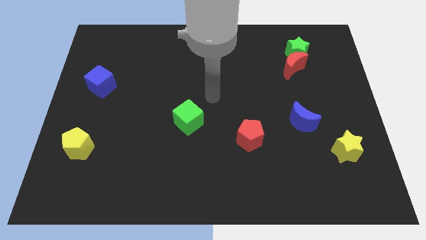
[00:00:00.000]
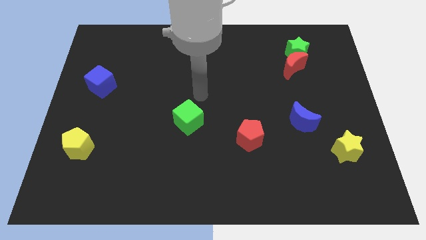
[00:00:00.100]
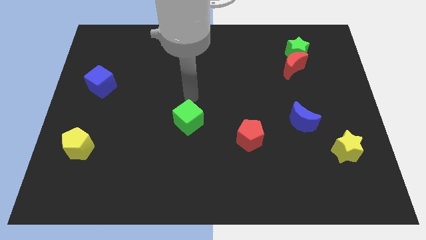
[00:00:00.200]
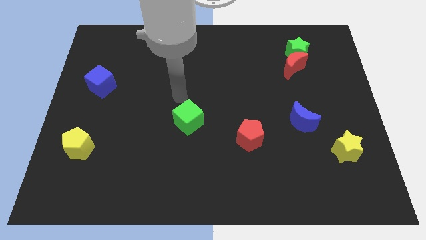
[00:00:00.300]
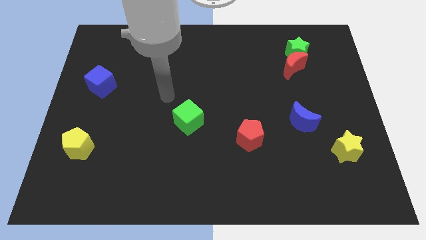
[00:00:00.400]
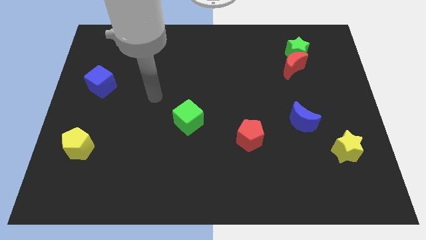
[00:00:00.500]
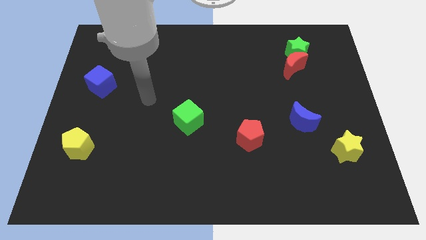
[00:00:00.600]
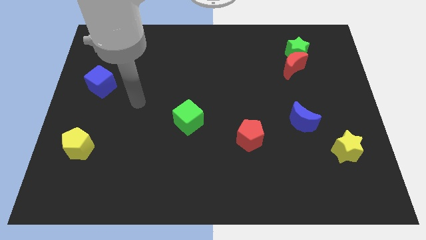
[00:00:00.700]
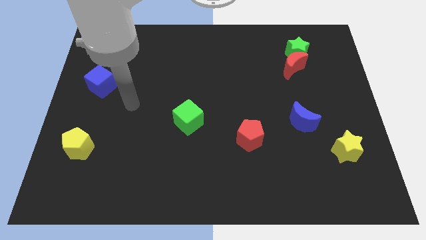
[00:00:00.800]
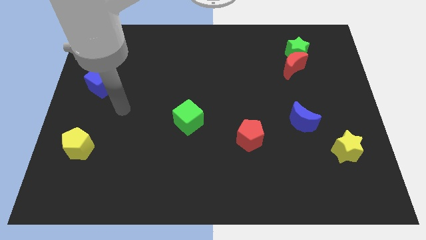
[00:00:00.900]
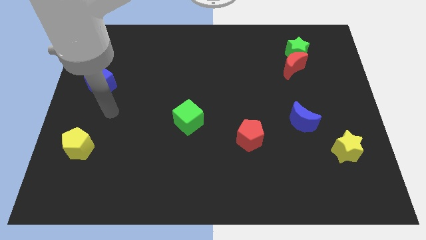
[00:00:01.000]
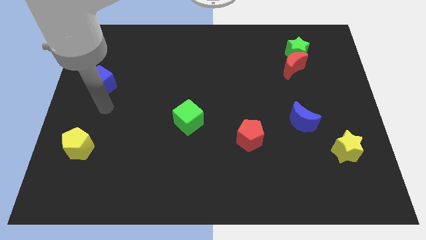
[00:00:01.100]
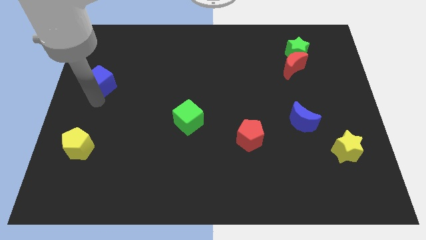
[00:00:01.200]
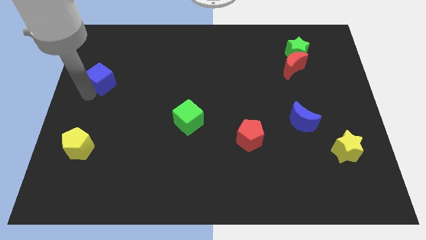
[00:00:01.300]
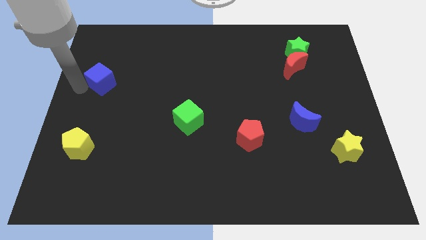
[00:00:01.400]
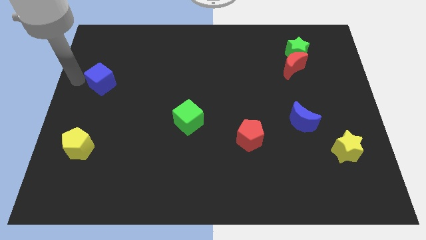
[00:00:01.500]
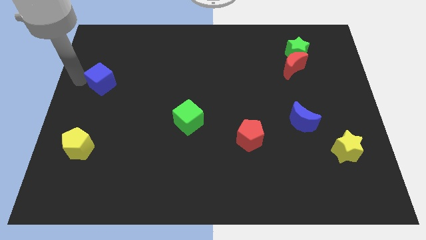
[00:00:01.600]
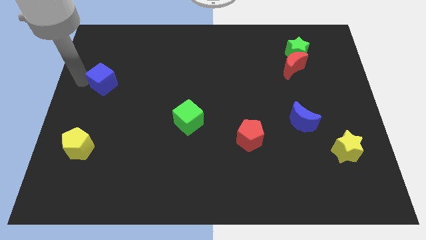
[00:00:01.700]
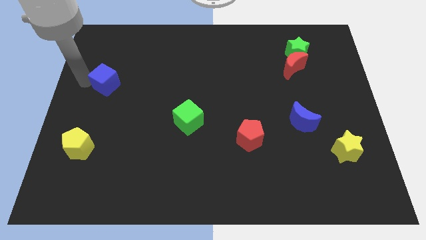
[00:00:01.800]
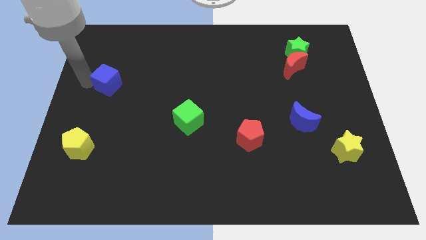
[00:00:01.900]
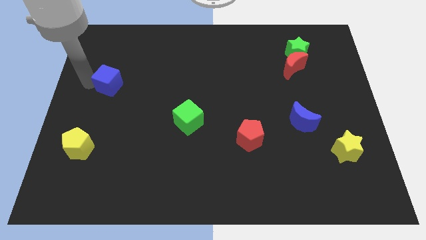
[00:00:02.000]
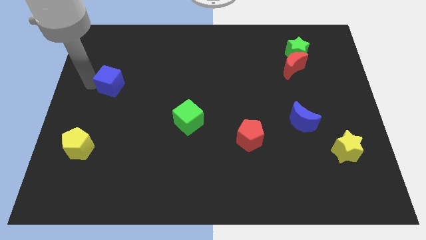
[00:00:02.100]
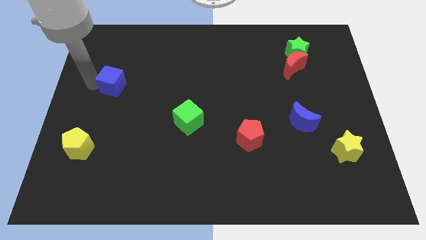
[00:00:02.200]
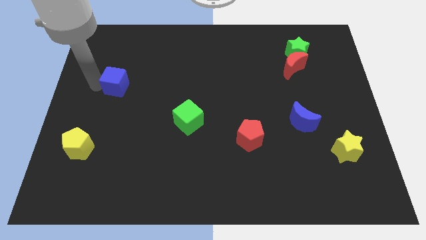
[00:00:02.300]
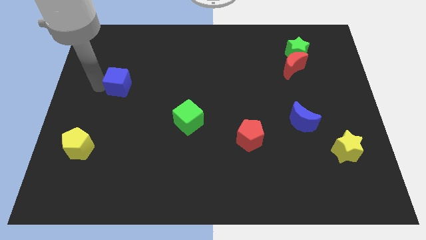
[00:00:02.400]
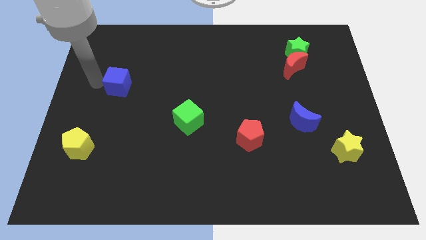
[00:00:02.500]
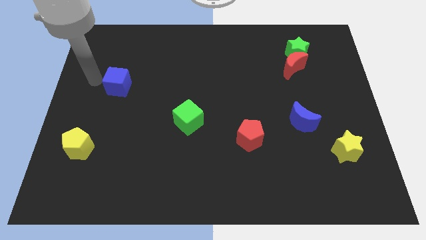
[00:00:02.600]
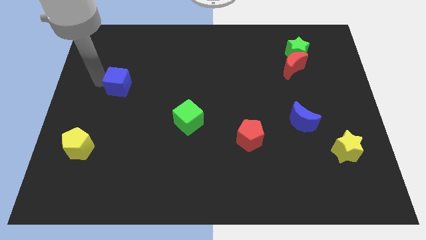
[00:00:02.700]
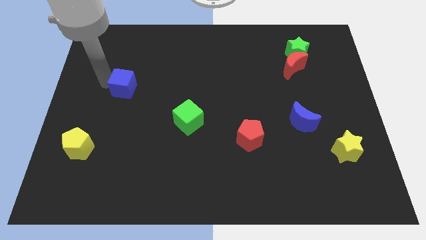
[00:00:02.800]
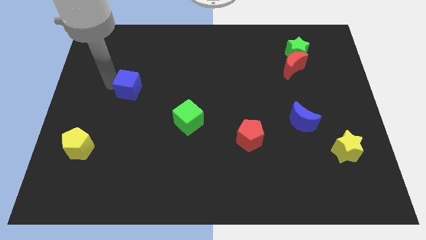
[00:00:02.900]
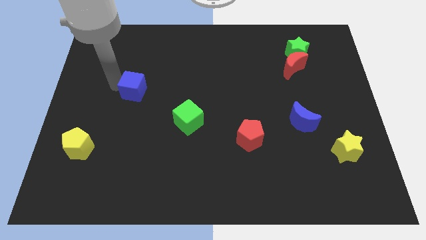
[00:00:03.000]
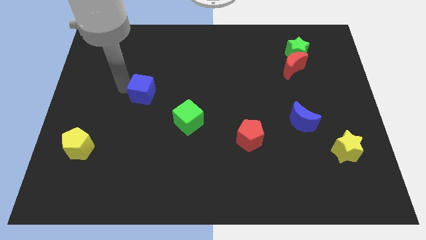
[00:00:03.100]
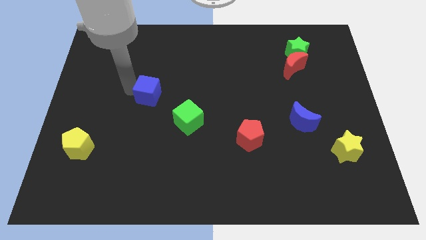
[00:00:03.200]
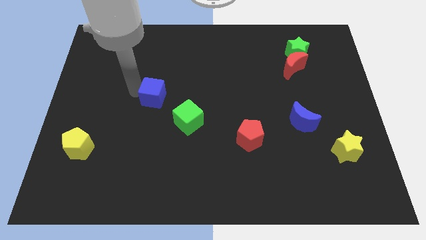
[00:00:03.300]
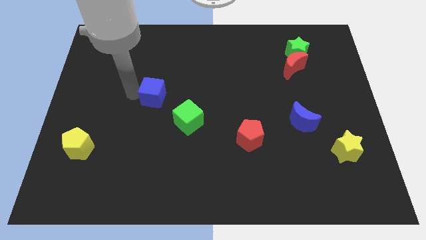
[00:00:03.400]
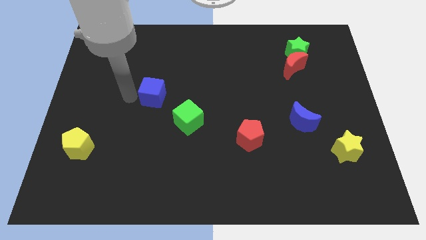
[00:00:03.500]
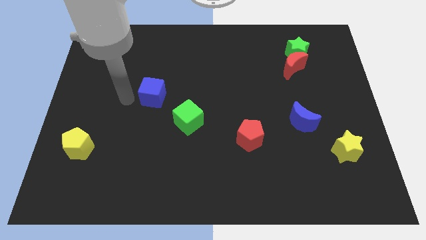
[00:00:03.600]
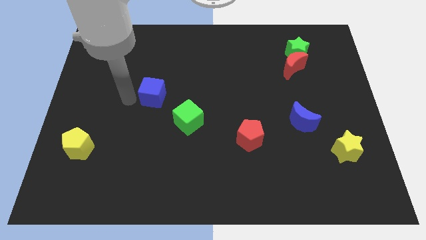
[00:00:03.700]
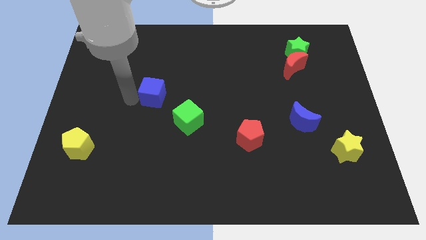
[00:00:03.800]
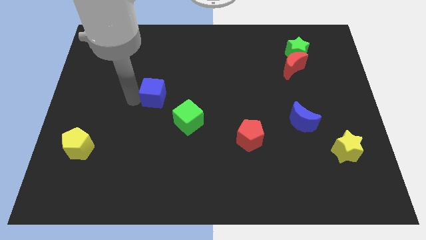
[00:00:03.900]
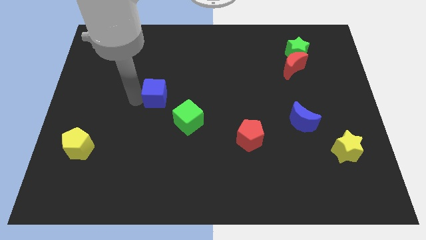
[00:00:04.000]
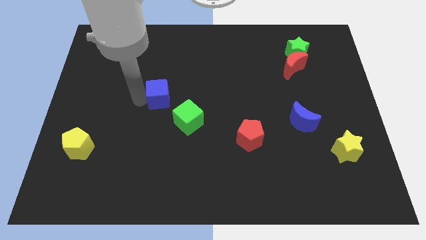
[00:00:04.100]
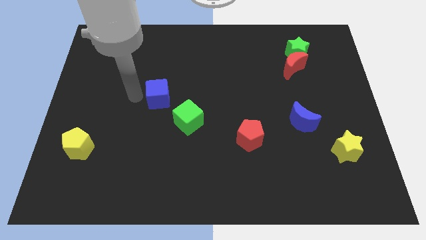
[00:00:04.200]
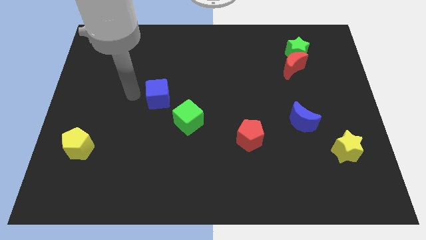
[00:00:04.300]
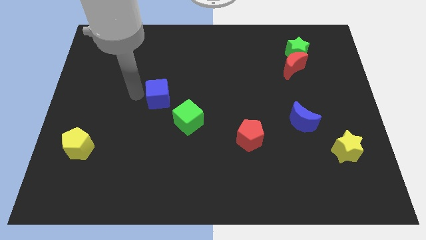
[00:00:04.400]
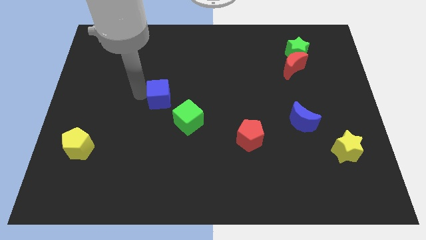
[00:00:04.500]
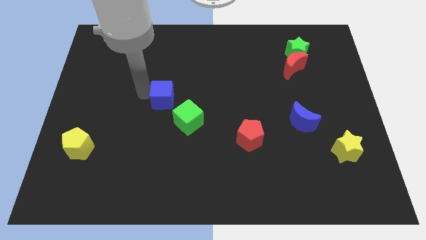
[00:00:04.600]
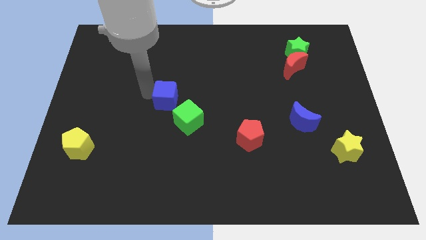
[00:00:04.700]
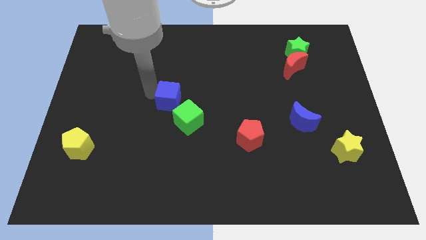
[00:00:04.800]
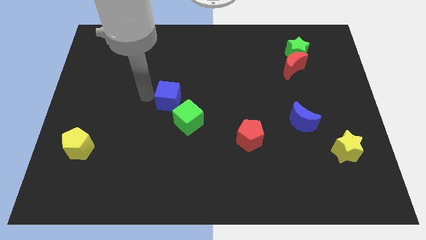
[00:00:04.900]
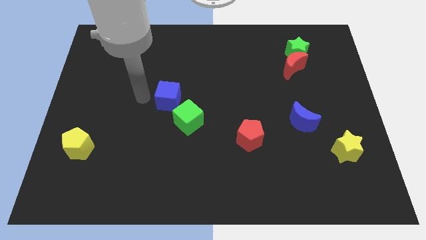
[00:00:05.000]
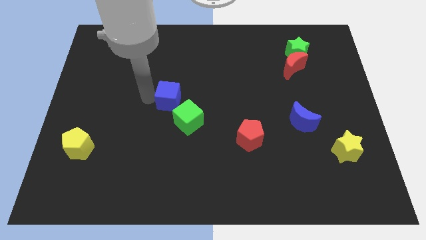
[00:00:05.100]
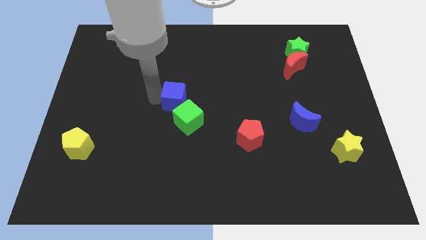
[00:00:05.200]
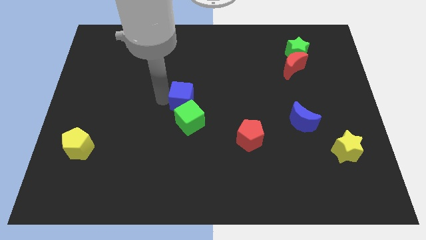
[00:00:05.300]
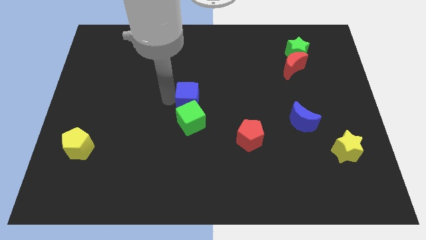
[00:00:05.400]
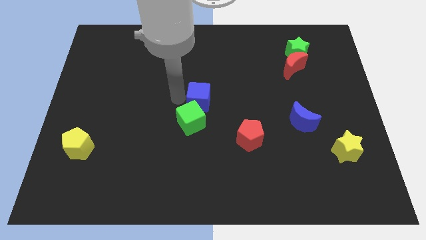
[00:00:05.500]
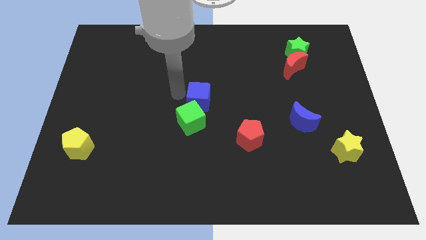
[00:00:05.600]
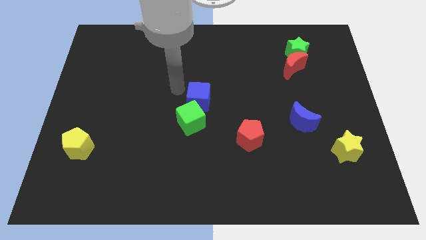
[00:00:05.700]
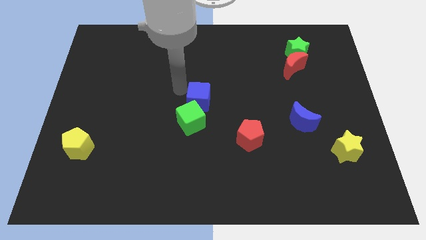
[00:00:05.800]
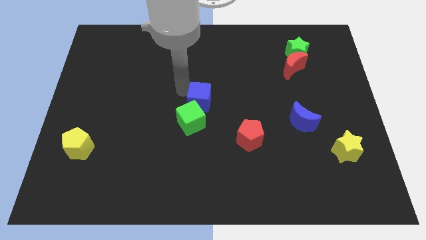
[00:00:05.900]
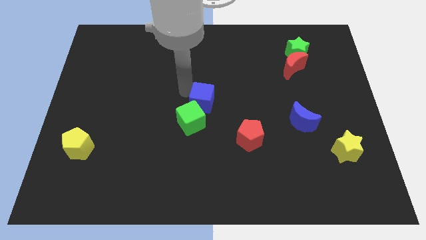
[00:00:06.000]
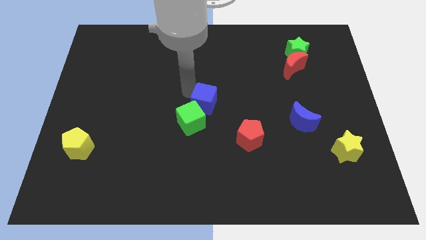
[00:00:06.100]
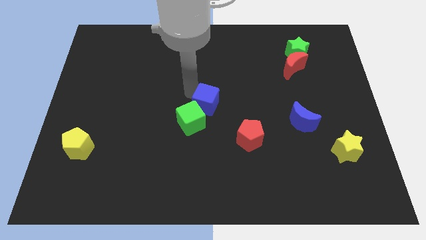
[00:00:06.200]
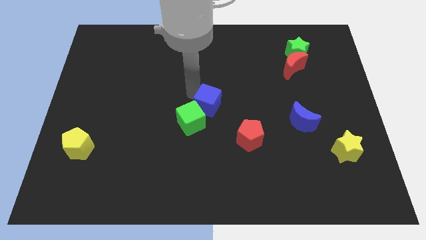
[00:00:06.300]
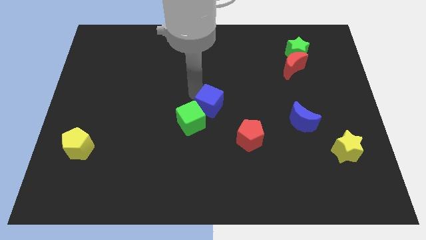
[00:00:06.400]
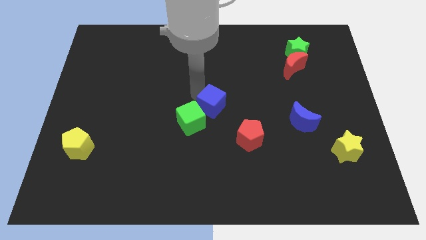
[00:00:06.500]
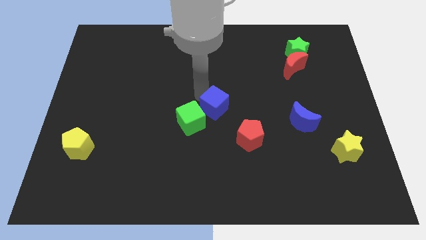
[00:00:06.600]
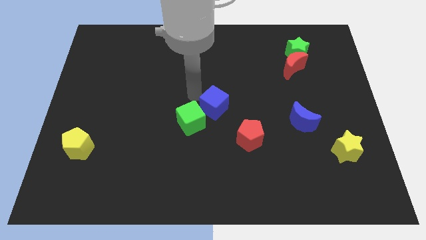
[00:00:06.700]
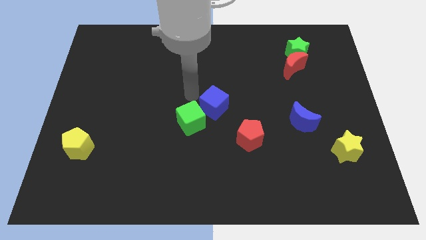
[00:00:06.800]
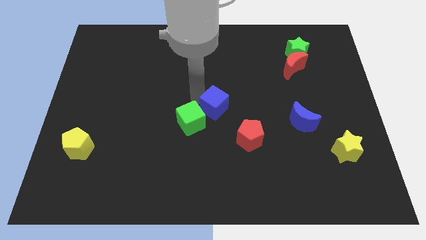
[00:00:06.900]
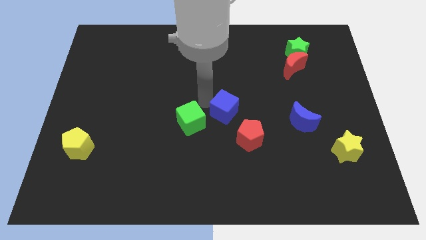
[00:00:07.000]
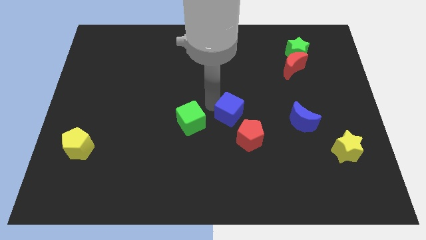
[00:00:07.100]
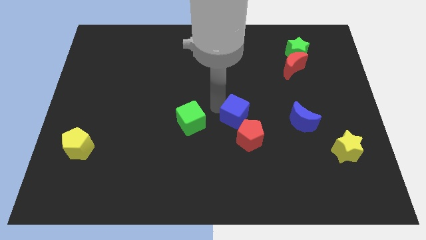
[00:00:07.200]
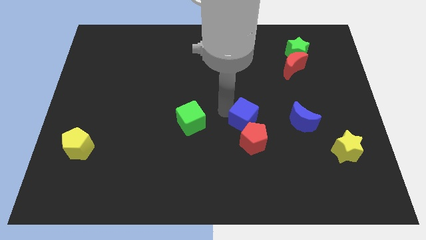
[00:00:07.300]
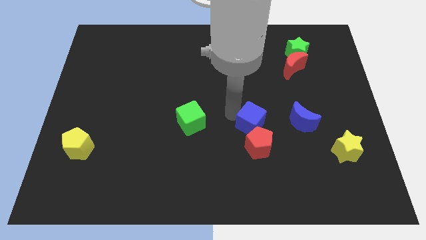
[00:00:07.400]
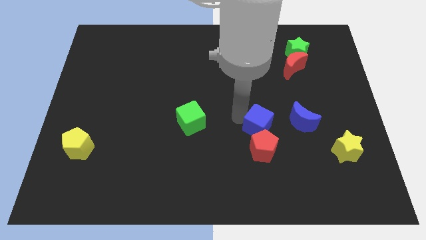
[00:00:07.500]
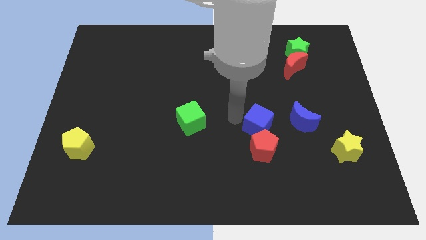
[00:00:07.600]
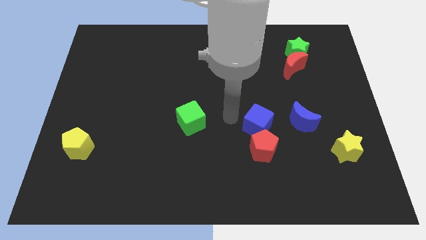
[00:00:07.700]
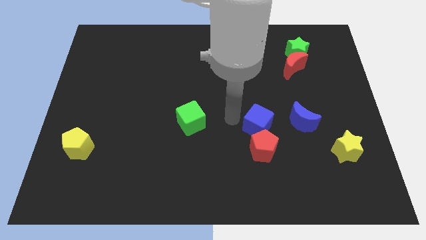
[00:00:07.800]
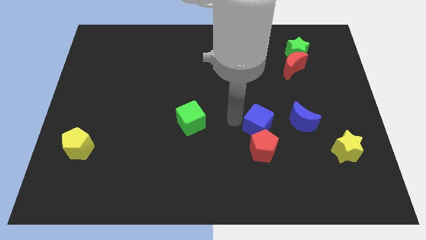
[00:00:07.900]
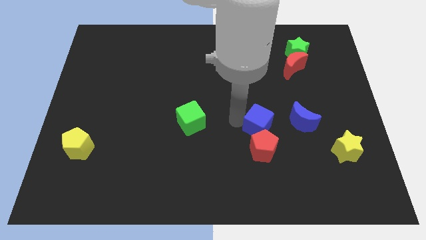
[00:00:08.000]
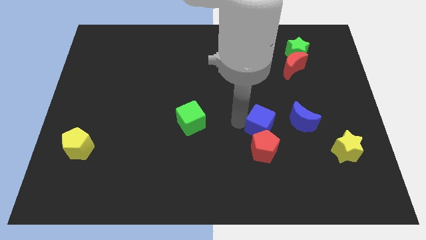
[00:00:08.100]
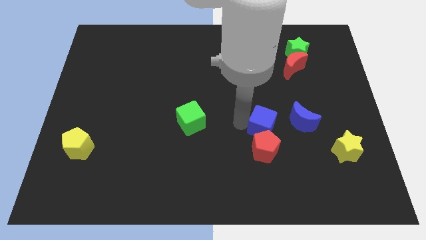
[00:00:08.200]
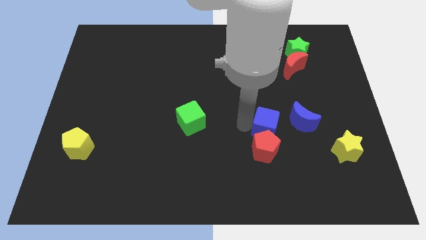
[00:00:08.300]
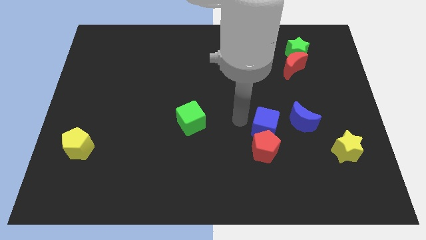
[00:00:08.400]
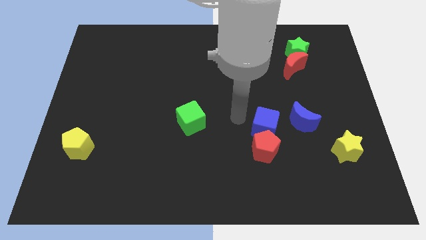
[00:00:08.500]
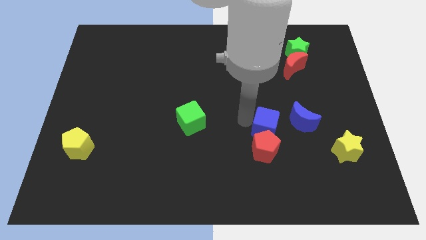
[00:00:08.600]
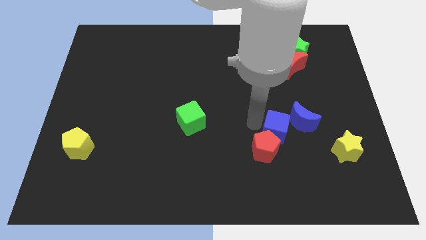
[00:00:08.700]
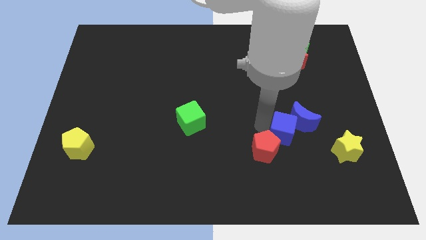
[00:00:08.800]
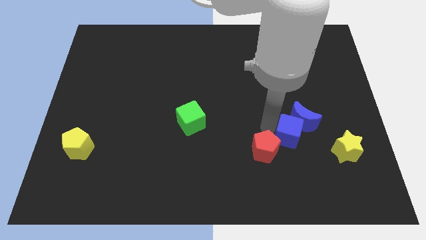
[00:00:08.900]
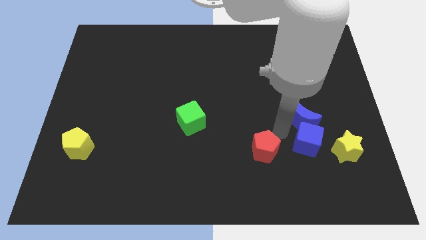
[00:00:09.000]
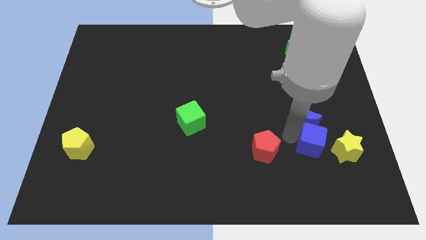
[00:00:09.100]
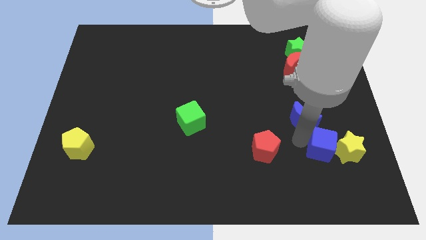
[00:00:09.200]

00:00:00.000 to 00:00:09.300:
put the blue cube next to the yellow star
